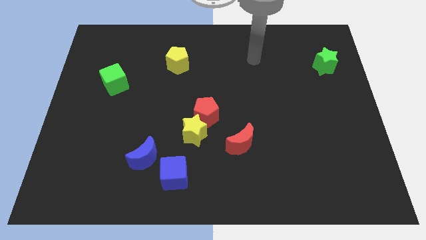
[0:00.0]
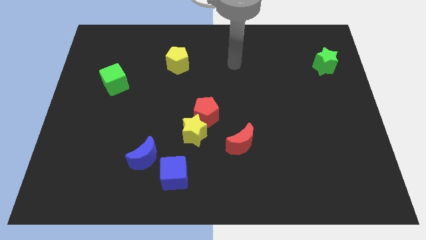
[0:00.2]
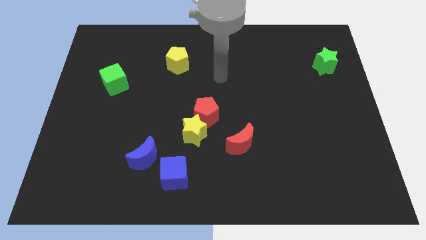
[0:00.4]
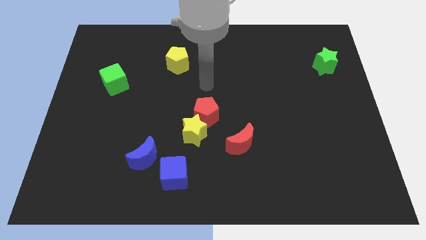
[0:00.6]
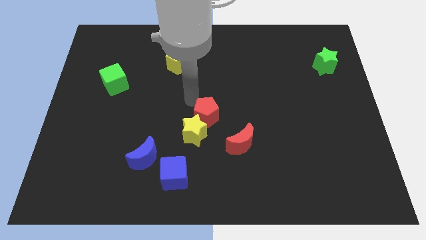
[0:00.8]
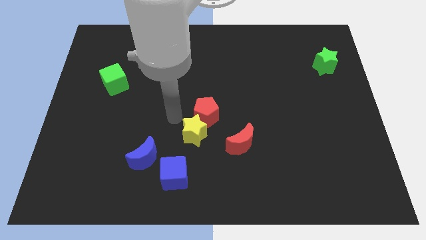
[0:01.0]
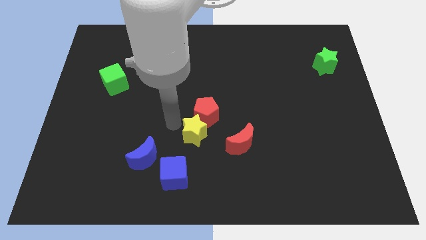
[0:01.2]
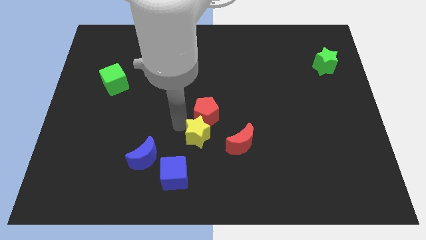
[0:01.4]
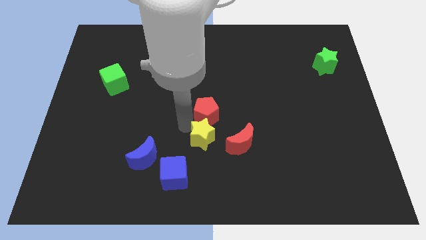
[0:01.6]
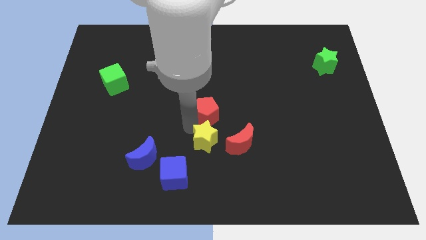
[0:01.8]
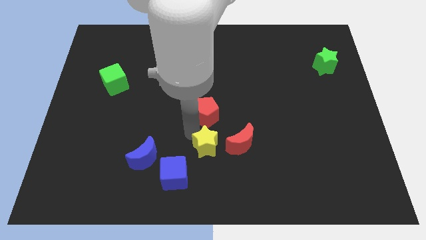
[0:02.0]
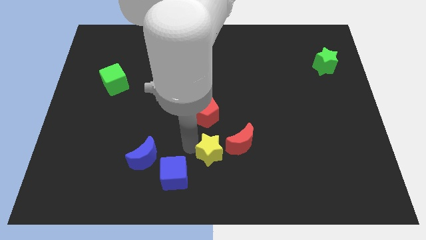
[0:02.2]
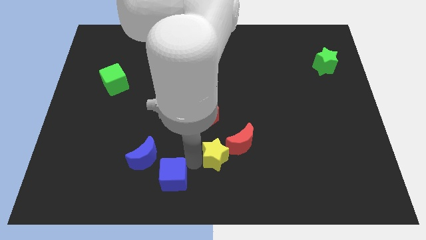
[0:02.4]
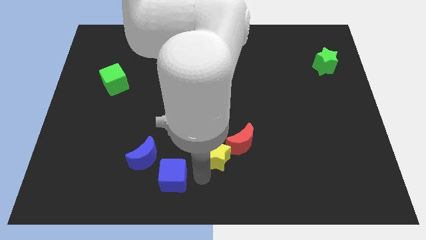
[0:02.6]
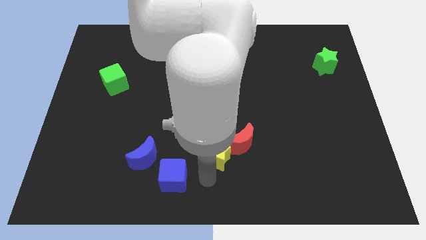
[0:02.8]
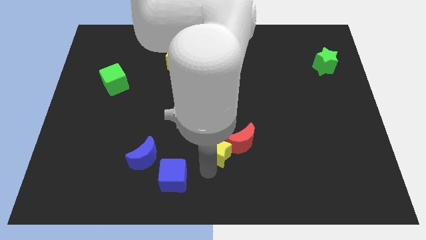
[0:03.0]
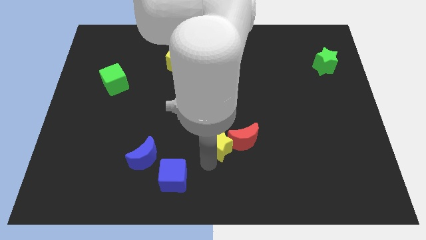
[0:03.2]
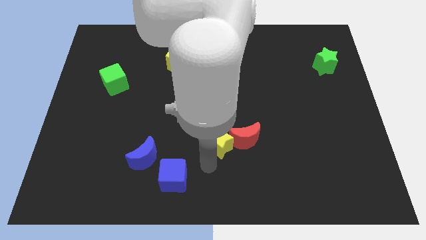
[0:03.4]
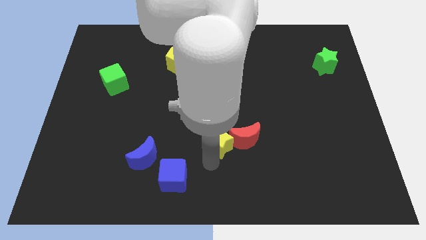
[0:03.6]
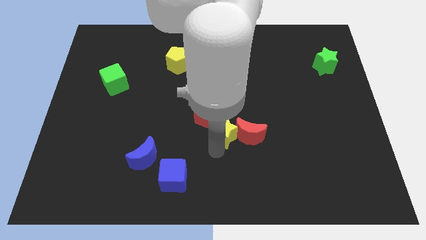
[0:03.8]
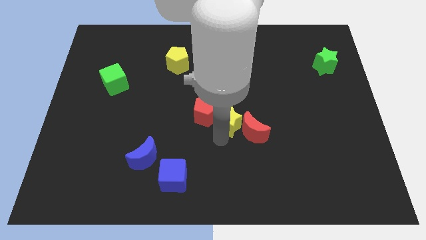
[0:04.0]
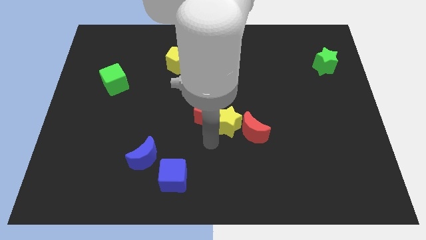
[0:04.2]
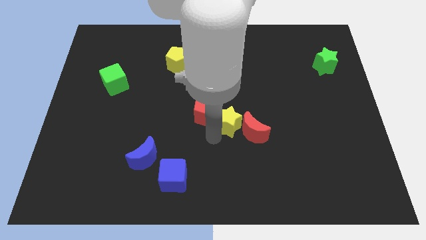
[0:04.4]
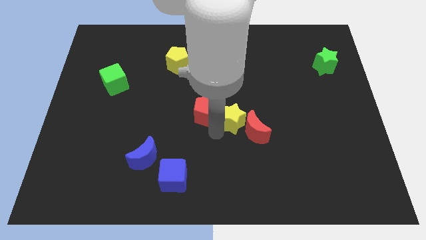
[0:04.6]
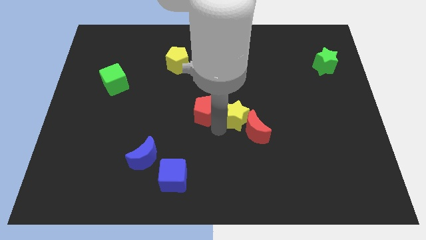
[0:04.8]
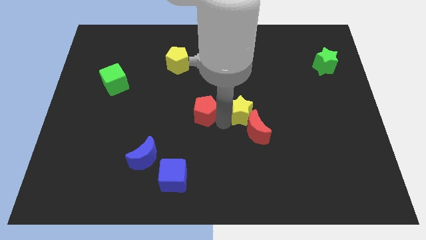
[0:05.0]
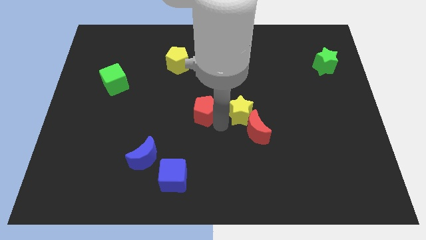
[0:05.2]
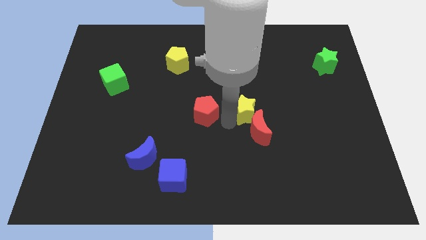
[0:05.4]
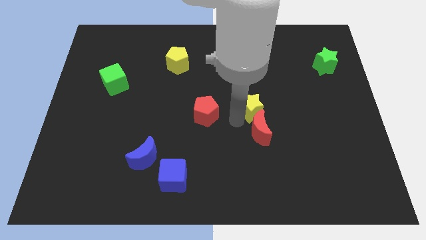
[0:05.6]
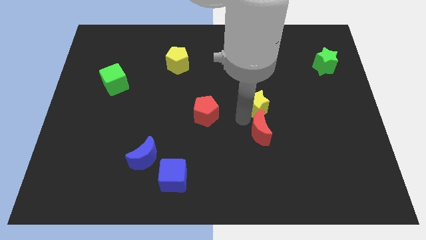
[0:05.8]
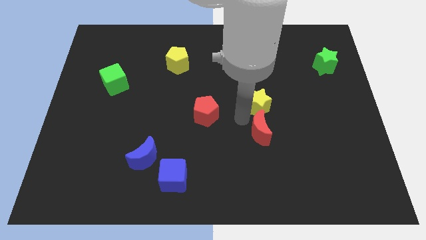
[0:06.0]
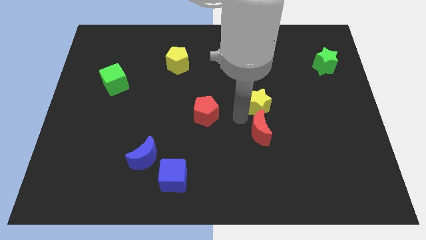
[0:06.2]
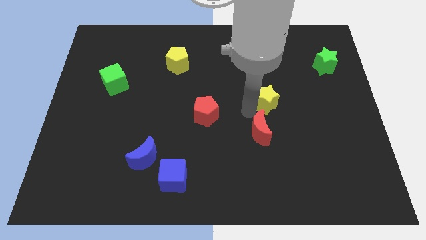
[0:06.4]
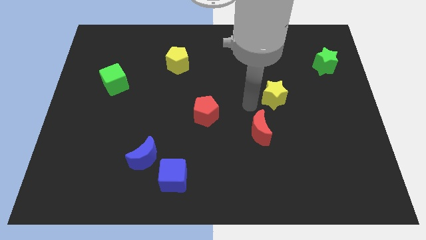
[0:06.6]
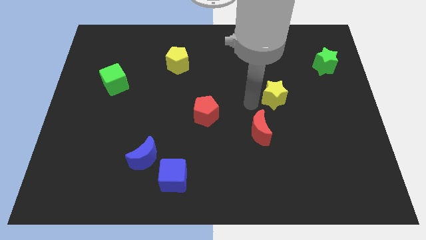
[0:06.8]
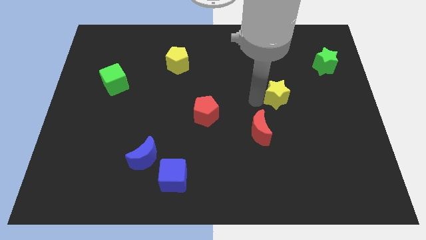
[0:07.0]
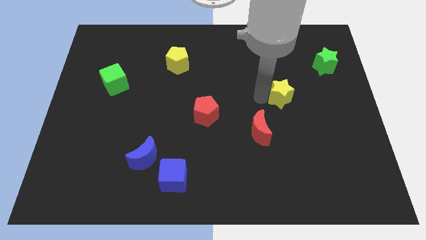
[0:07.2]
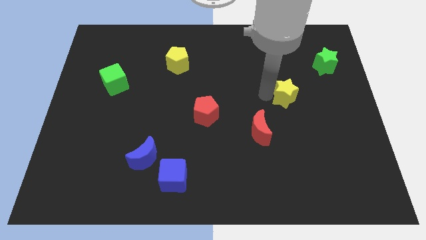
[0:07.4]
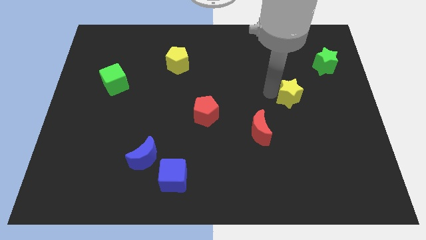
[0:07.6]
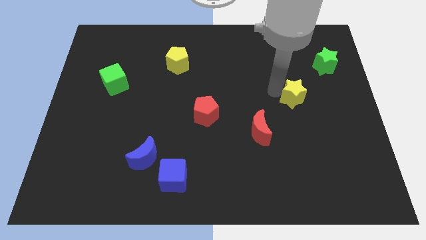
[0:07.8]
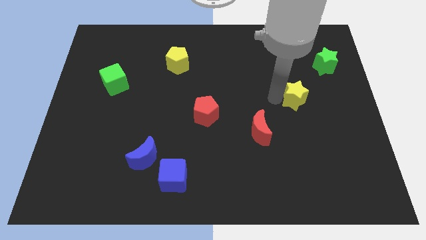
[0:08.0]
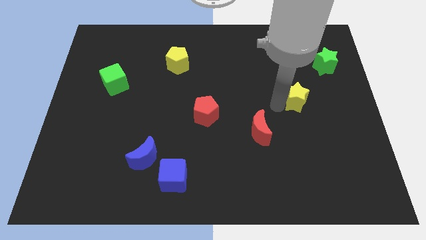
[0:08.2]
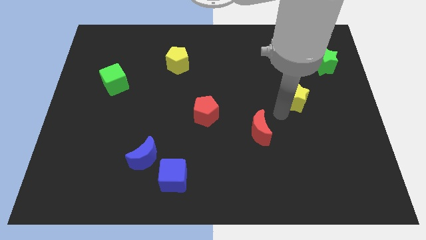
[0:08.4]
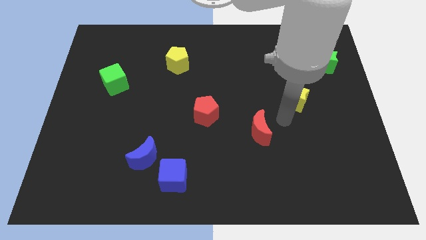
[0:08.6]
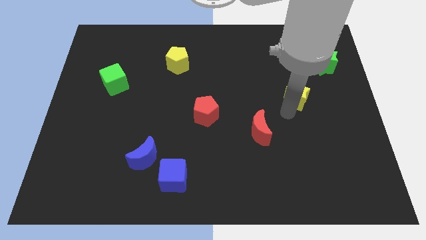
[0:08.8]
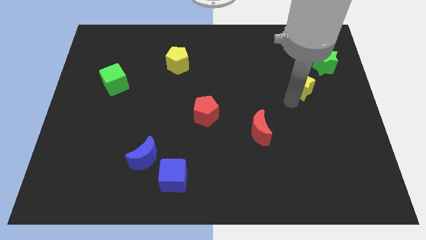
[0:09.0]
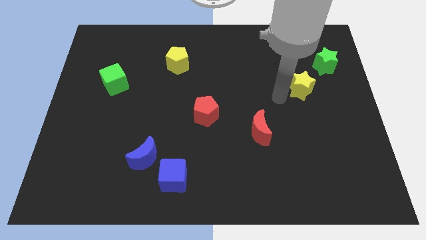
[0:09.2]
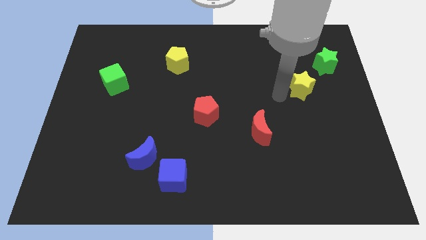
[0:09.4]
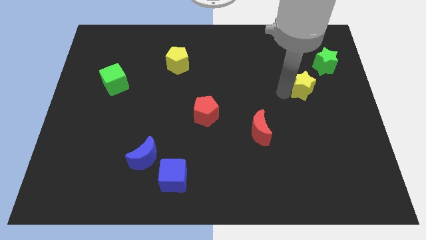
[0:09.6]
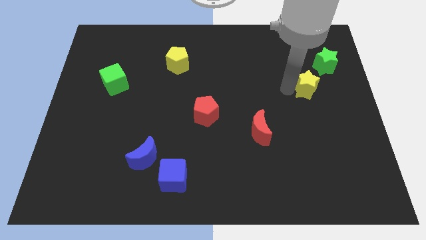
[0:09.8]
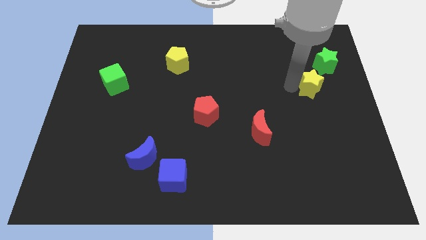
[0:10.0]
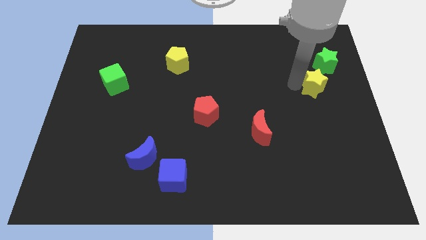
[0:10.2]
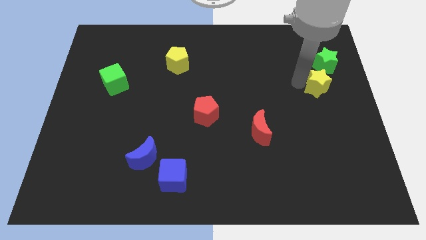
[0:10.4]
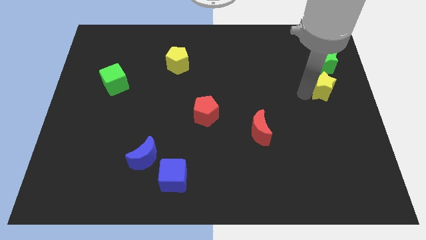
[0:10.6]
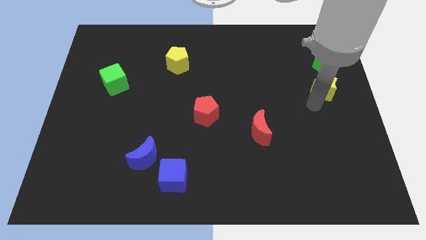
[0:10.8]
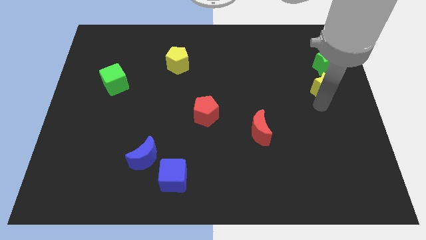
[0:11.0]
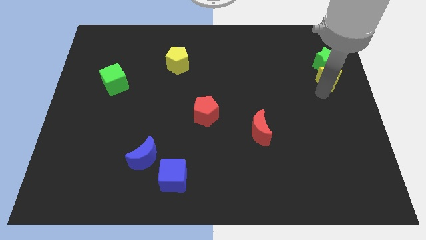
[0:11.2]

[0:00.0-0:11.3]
move the yellow star towards the green star

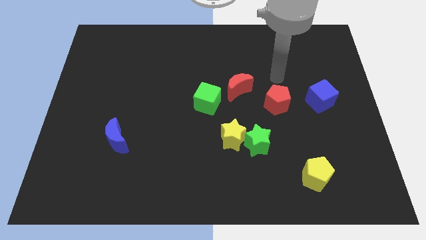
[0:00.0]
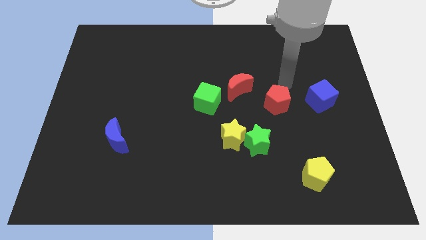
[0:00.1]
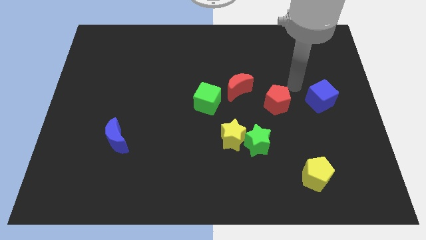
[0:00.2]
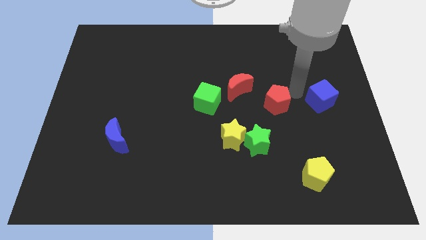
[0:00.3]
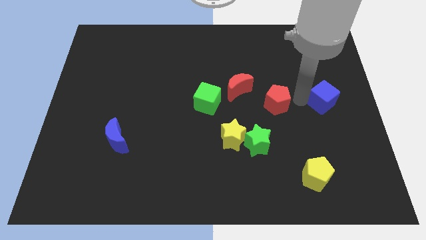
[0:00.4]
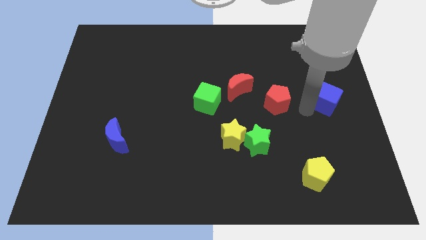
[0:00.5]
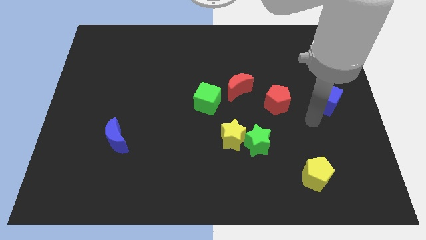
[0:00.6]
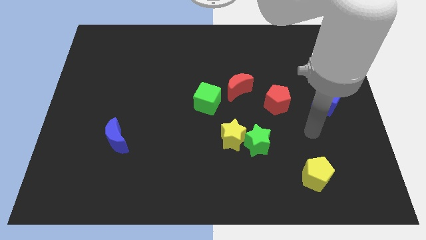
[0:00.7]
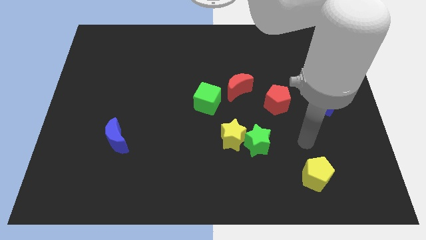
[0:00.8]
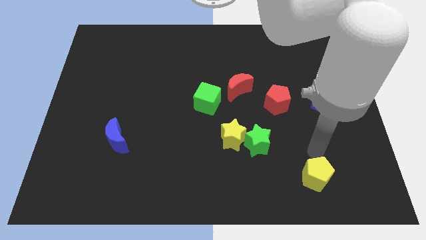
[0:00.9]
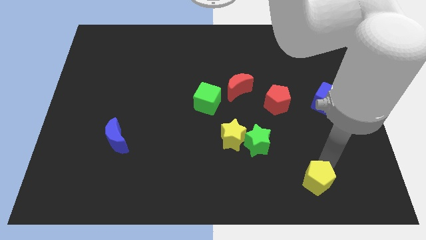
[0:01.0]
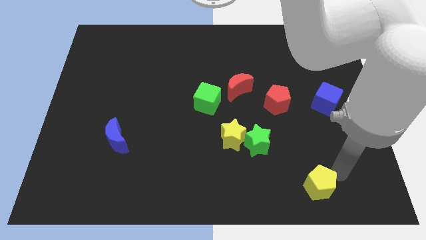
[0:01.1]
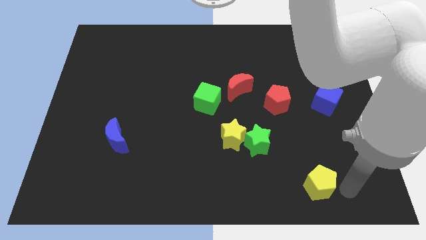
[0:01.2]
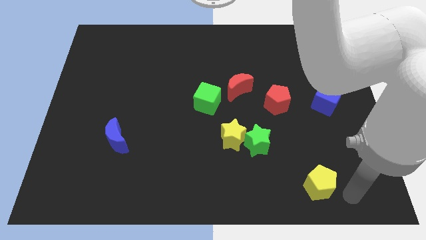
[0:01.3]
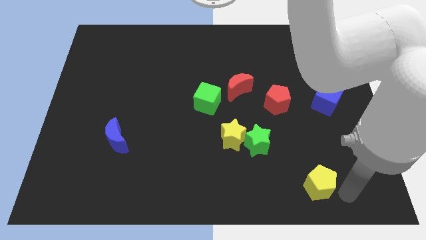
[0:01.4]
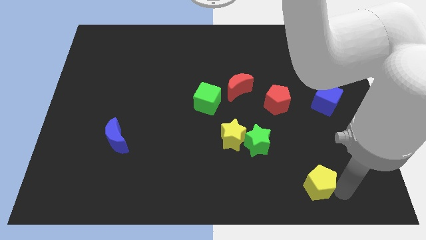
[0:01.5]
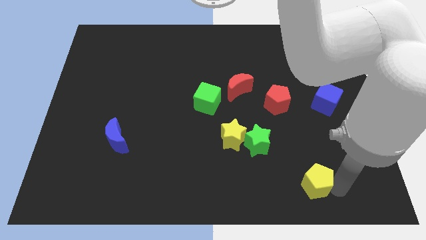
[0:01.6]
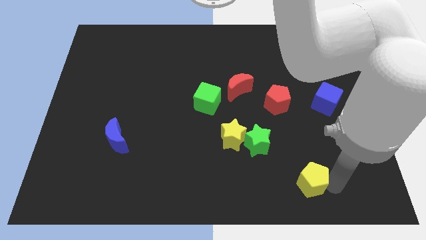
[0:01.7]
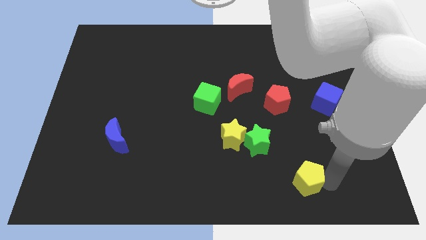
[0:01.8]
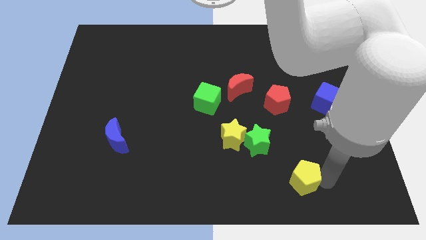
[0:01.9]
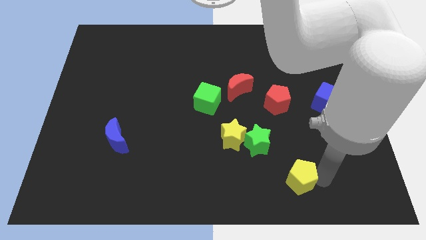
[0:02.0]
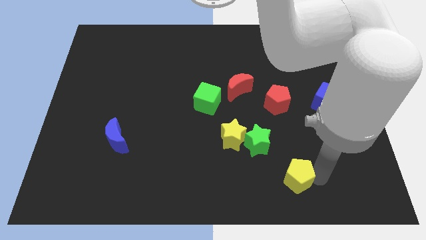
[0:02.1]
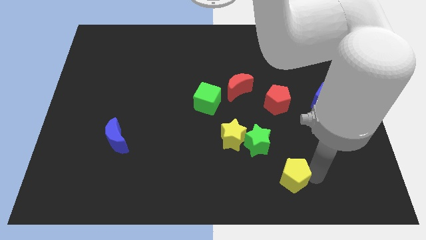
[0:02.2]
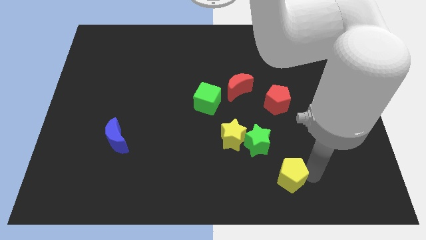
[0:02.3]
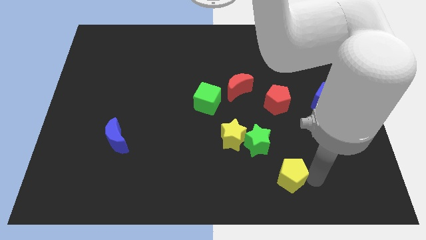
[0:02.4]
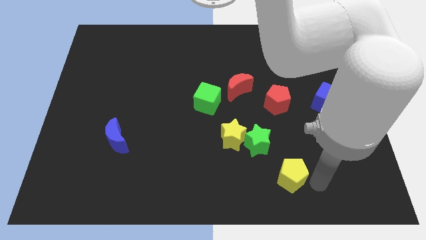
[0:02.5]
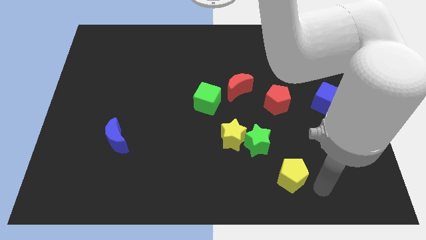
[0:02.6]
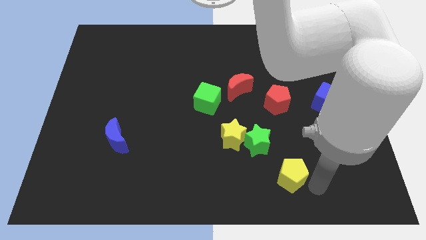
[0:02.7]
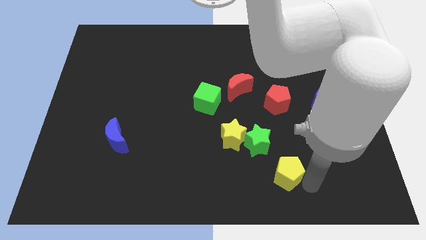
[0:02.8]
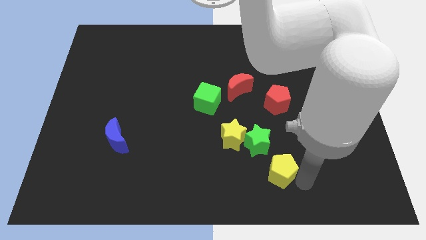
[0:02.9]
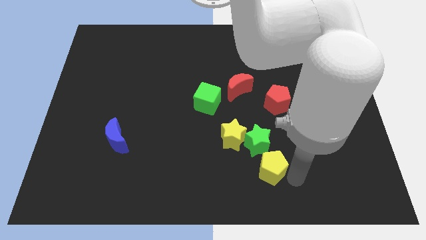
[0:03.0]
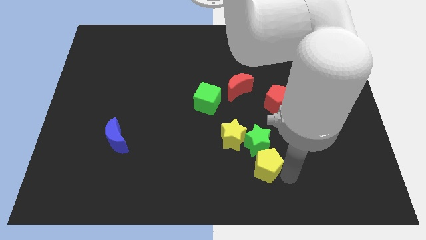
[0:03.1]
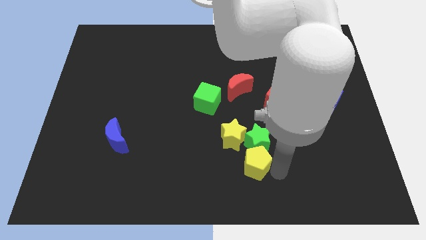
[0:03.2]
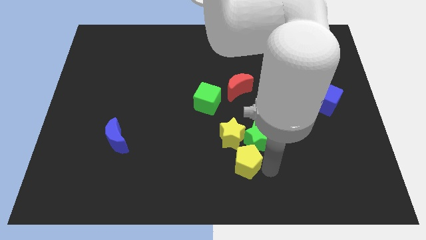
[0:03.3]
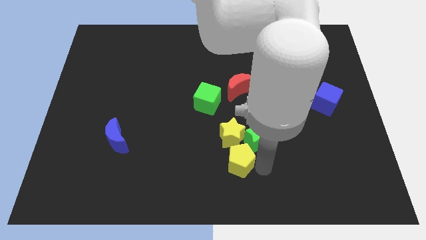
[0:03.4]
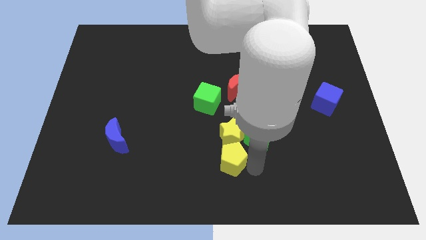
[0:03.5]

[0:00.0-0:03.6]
put the yellow pentagon next to the yellow star
